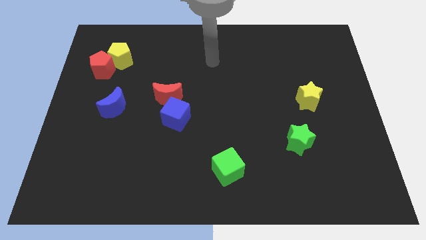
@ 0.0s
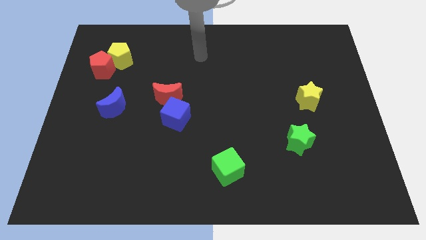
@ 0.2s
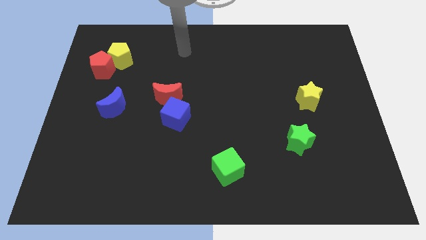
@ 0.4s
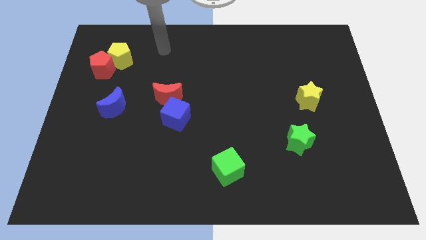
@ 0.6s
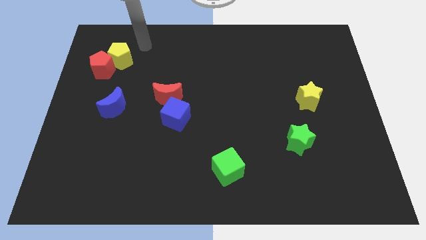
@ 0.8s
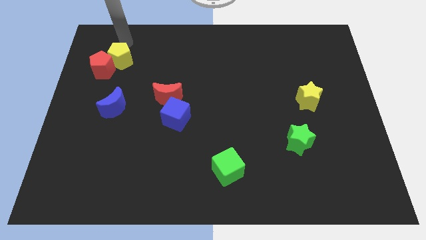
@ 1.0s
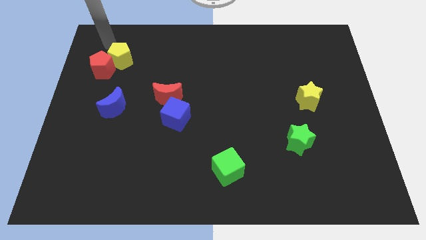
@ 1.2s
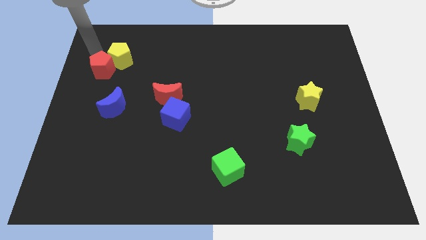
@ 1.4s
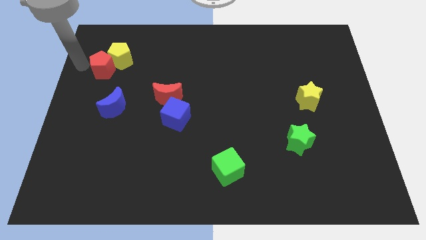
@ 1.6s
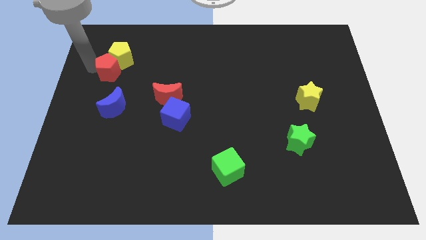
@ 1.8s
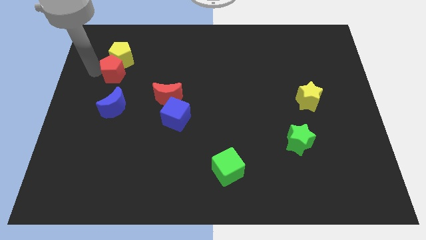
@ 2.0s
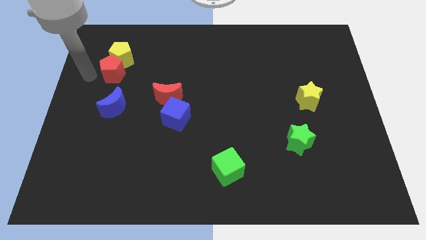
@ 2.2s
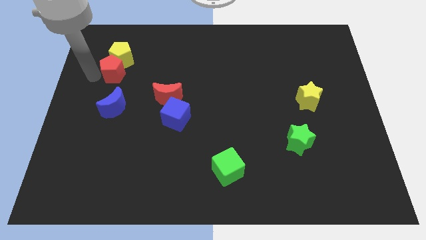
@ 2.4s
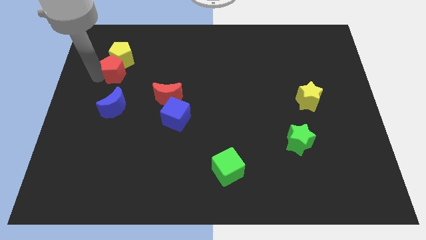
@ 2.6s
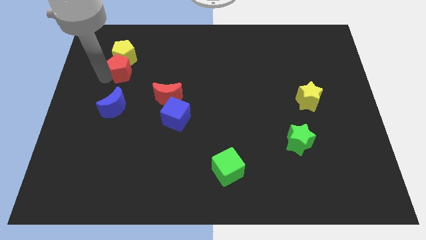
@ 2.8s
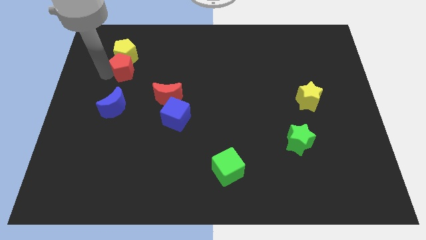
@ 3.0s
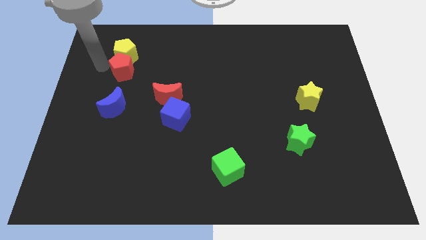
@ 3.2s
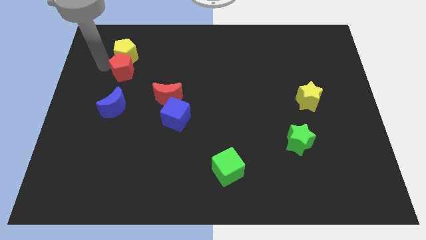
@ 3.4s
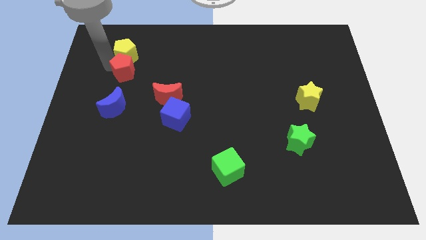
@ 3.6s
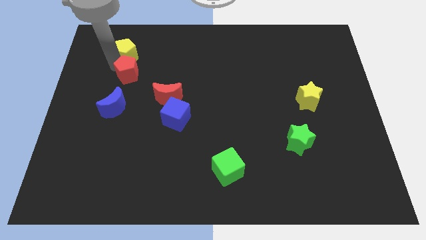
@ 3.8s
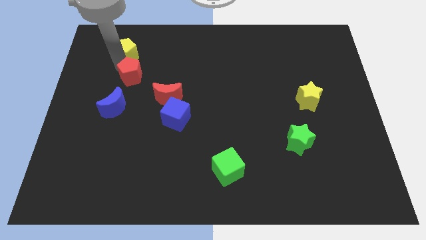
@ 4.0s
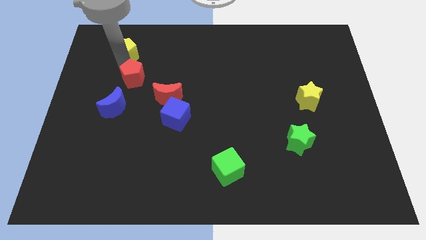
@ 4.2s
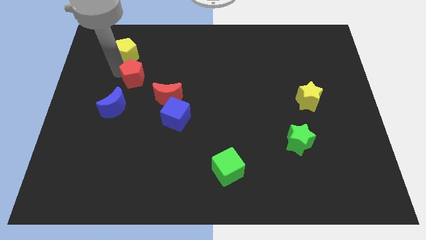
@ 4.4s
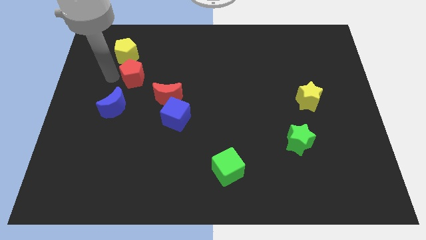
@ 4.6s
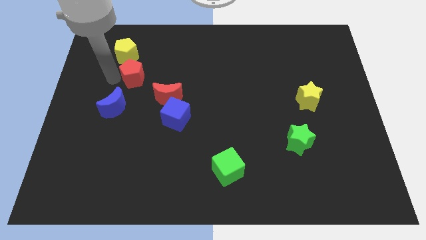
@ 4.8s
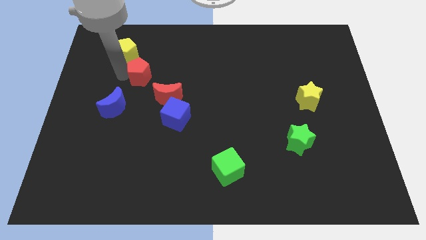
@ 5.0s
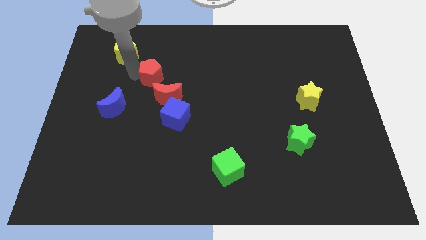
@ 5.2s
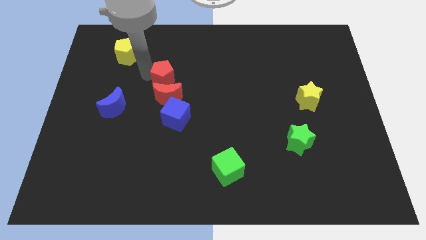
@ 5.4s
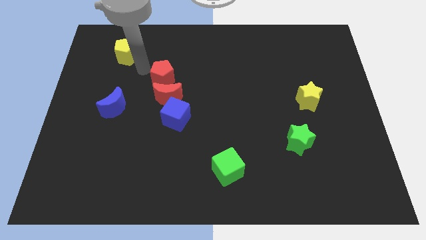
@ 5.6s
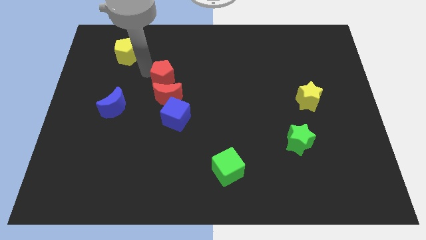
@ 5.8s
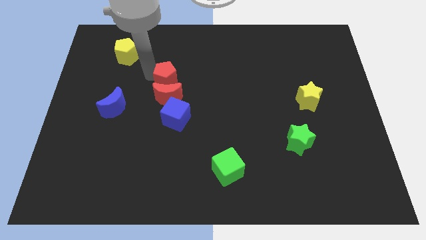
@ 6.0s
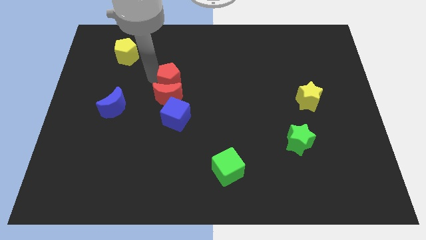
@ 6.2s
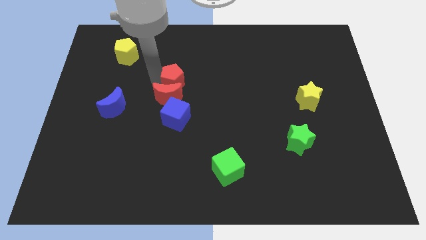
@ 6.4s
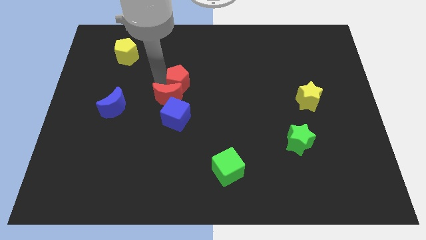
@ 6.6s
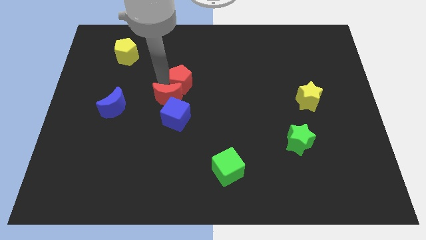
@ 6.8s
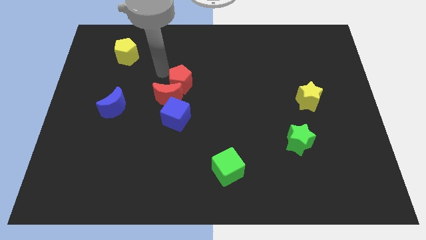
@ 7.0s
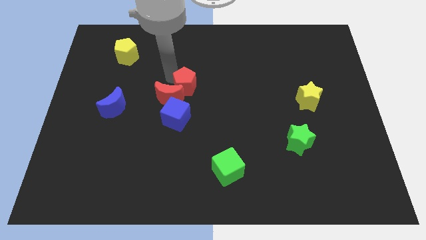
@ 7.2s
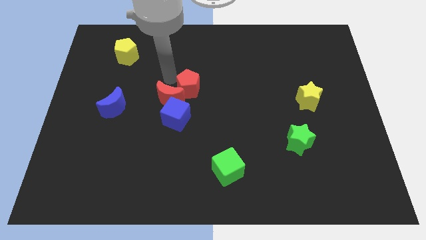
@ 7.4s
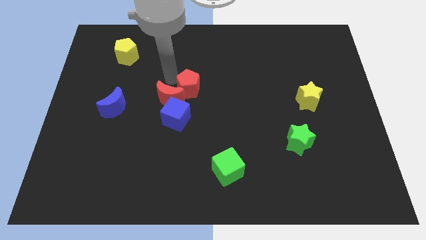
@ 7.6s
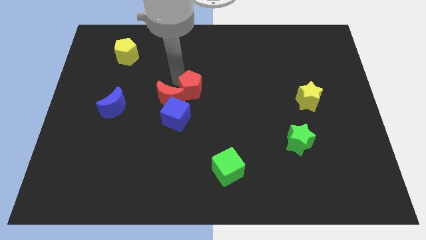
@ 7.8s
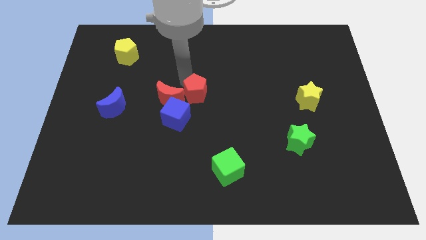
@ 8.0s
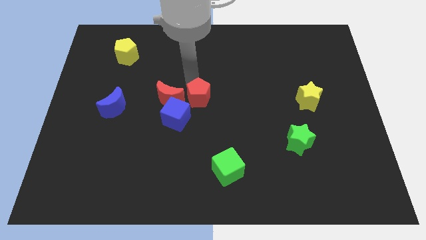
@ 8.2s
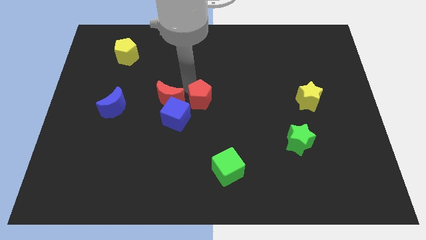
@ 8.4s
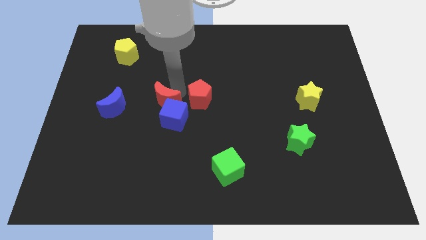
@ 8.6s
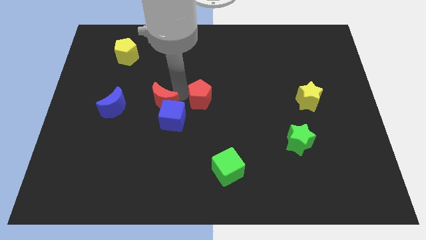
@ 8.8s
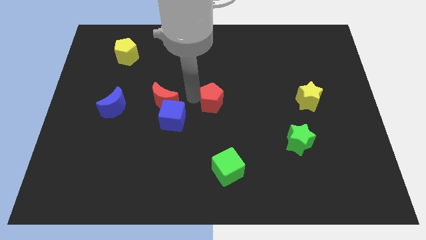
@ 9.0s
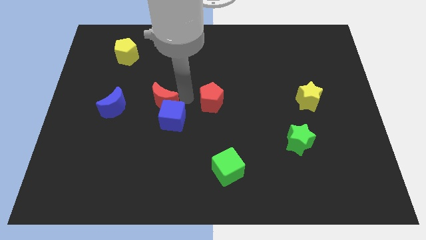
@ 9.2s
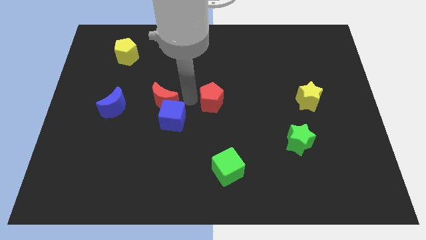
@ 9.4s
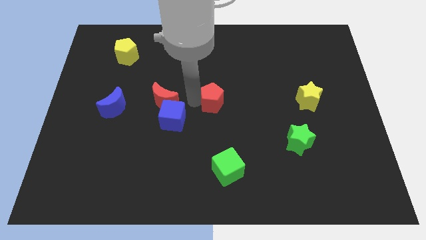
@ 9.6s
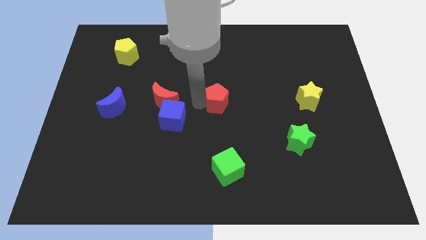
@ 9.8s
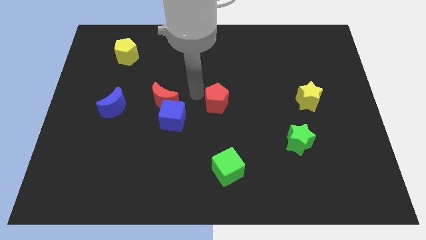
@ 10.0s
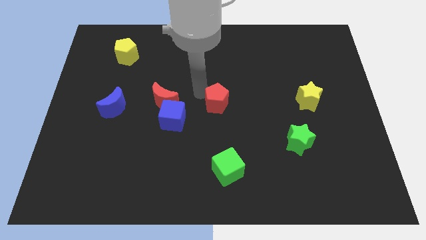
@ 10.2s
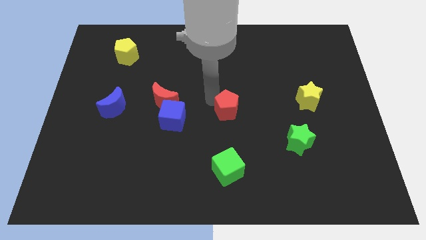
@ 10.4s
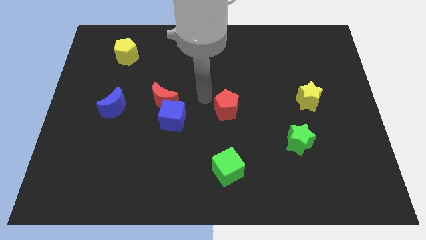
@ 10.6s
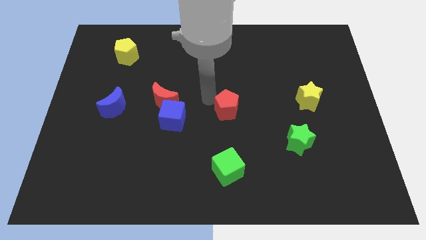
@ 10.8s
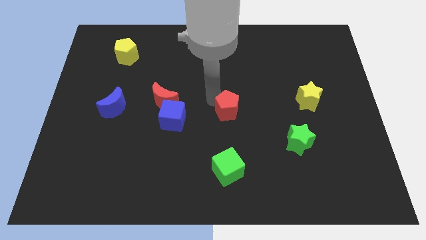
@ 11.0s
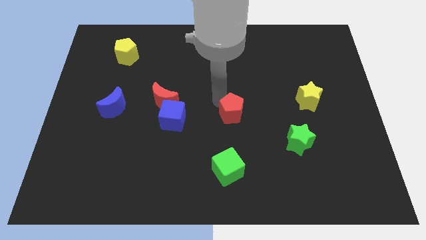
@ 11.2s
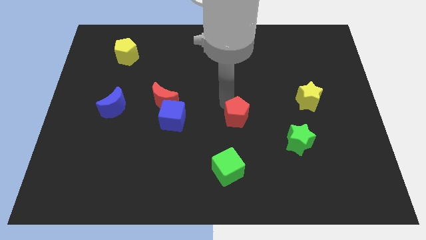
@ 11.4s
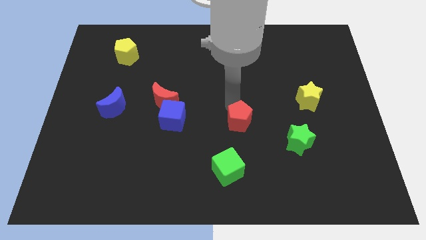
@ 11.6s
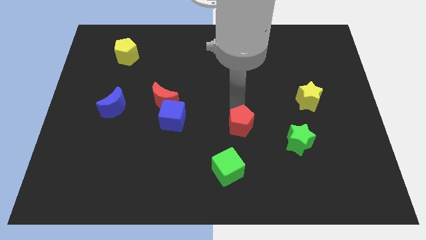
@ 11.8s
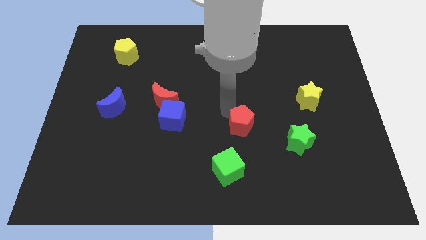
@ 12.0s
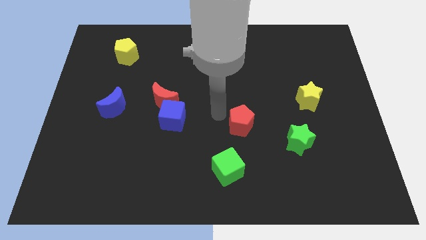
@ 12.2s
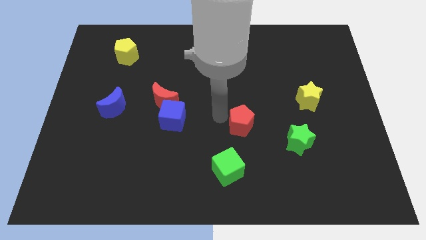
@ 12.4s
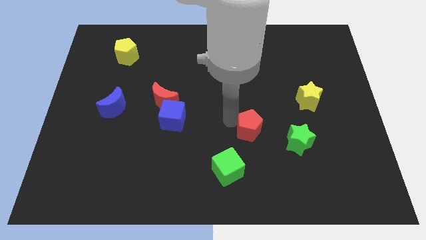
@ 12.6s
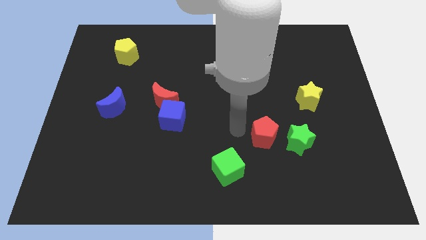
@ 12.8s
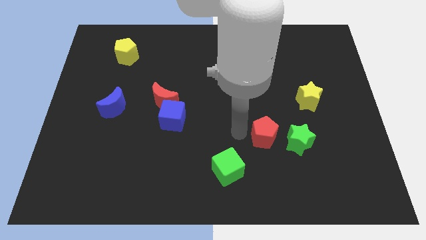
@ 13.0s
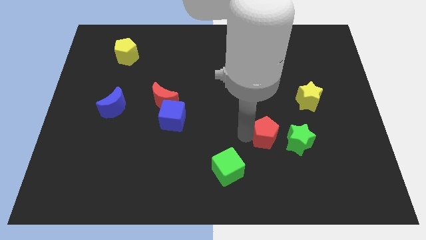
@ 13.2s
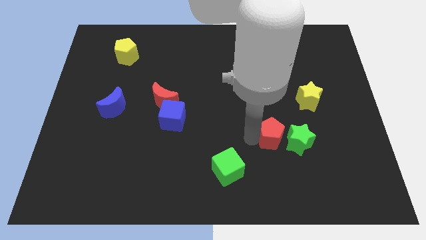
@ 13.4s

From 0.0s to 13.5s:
put the red pentagon close to the green star

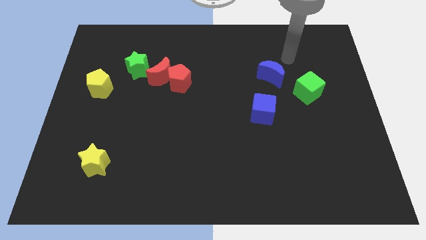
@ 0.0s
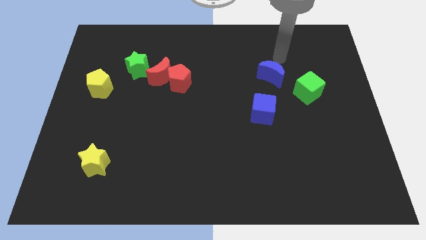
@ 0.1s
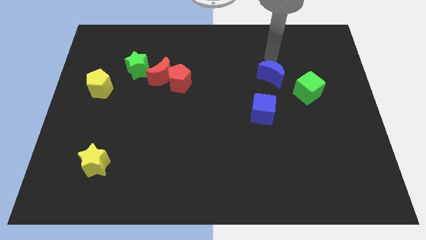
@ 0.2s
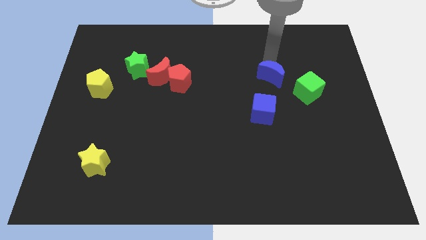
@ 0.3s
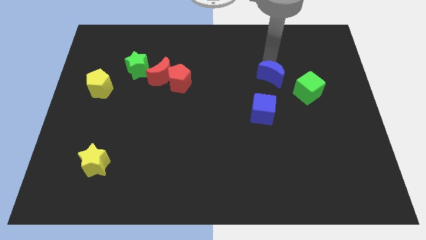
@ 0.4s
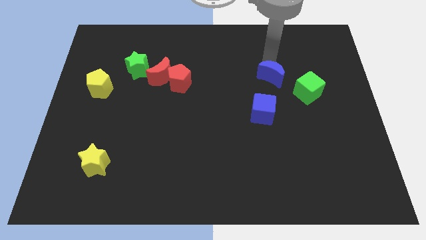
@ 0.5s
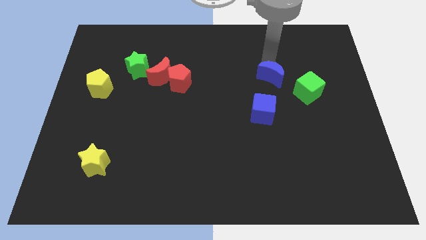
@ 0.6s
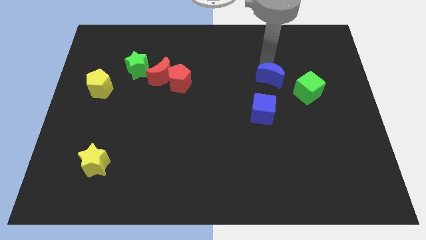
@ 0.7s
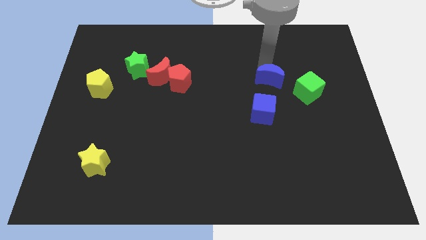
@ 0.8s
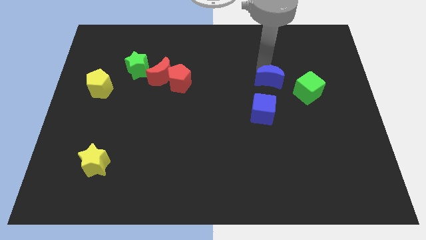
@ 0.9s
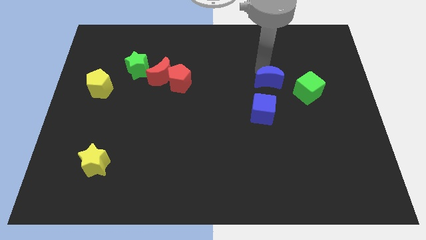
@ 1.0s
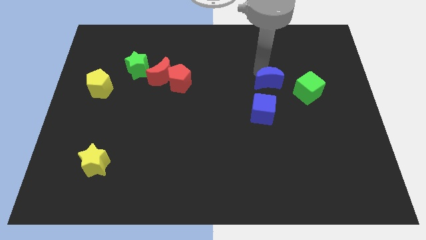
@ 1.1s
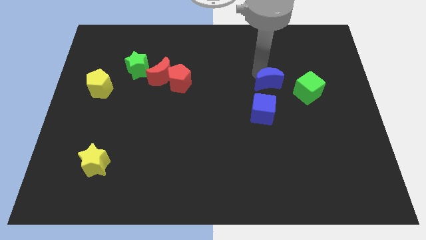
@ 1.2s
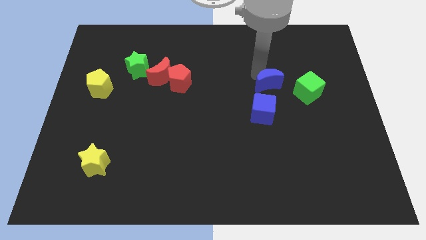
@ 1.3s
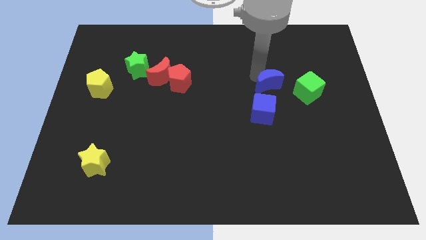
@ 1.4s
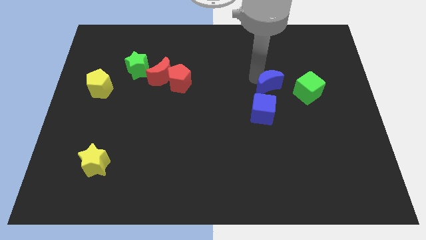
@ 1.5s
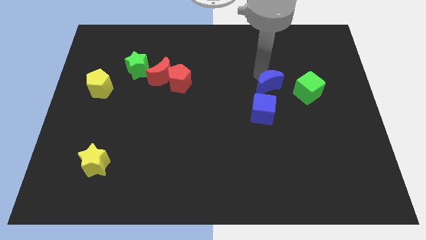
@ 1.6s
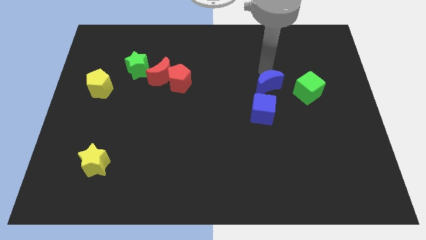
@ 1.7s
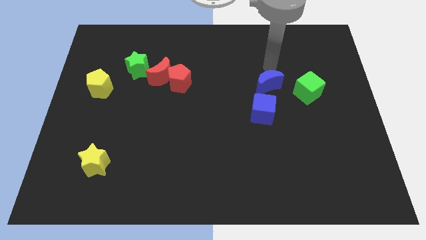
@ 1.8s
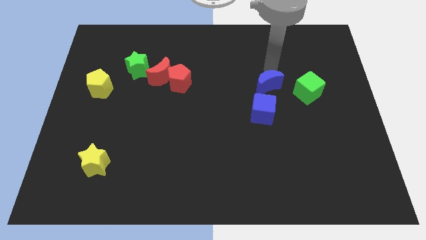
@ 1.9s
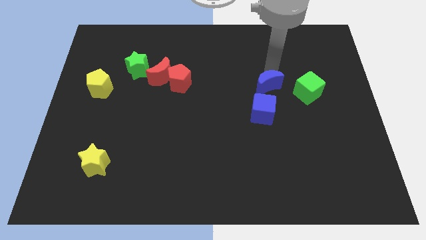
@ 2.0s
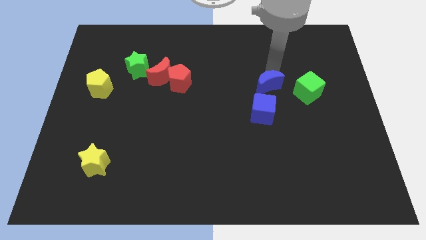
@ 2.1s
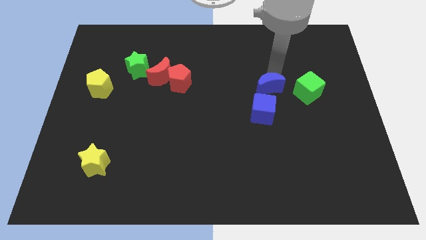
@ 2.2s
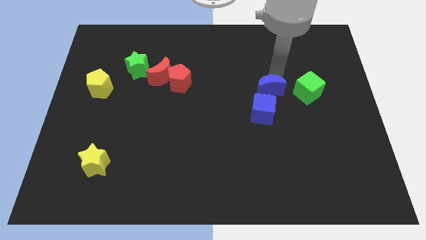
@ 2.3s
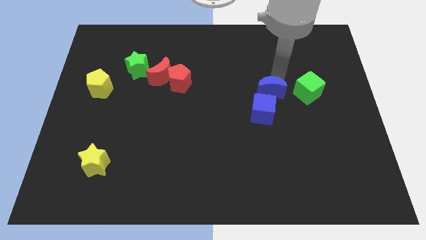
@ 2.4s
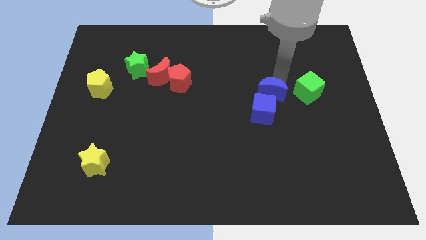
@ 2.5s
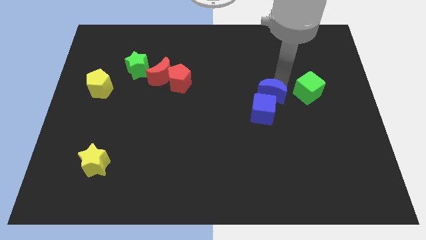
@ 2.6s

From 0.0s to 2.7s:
move the blue moon towards the blue cube
